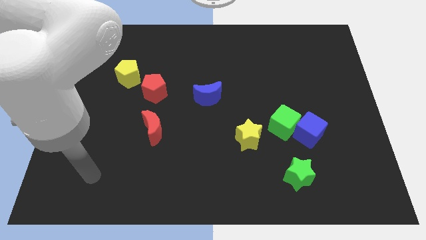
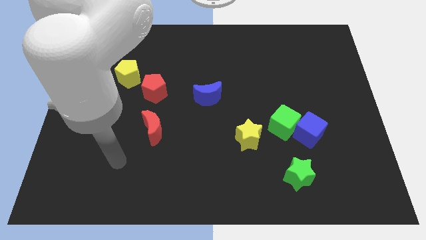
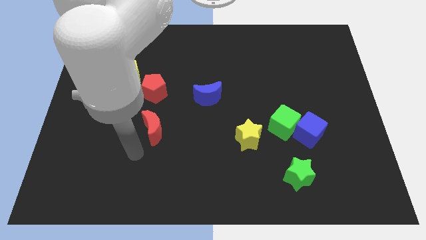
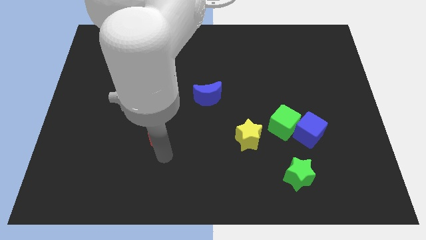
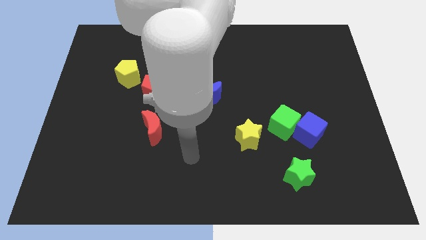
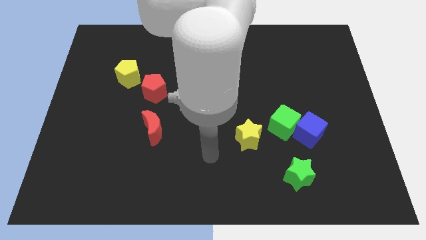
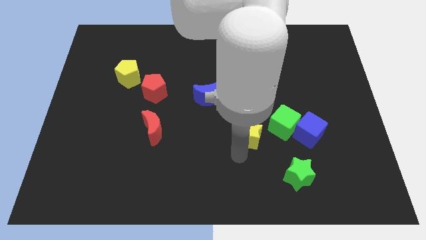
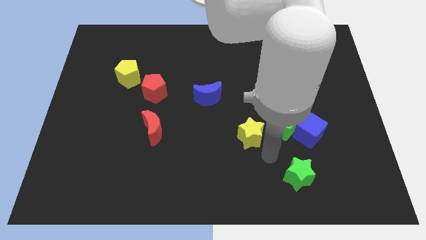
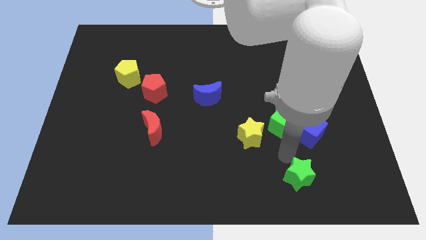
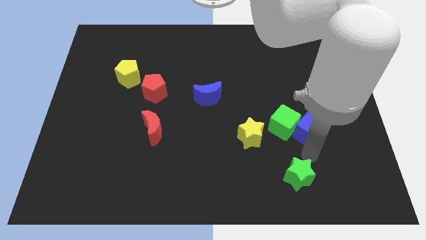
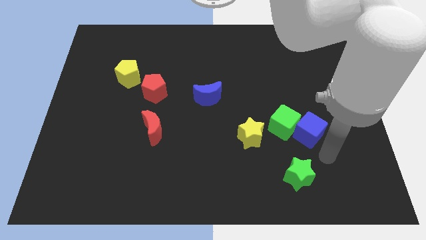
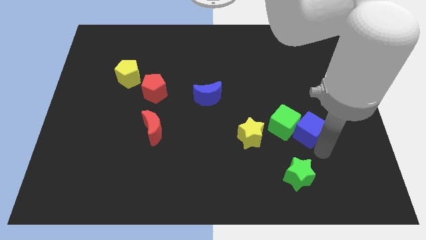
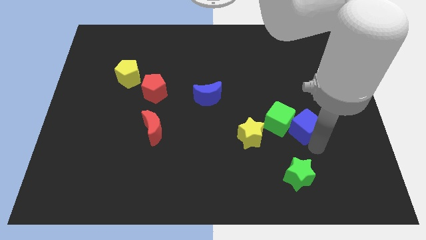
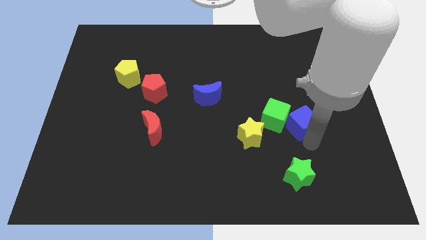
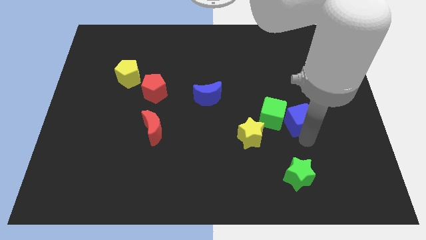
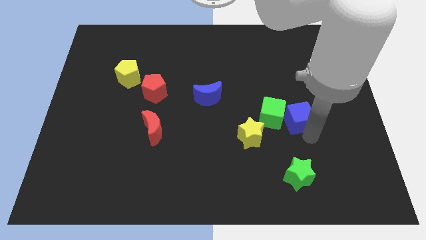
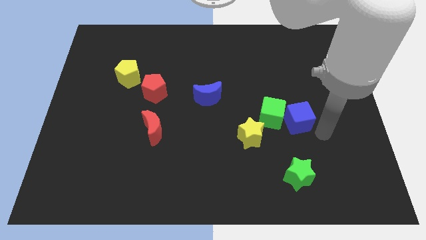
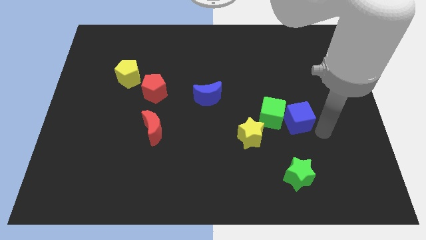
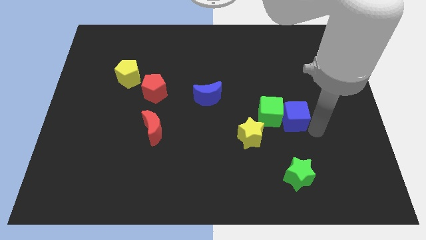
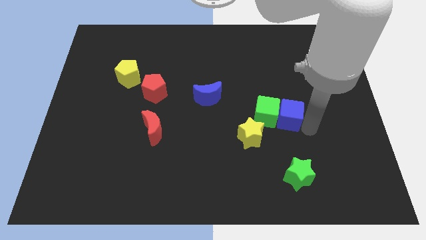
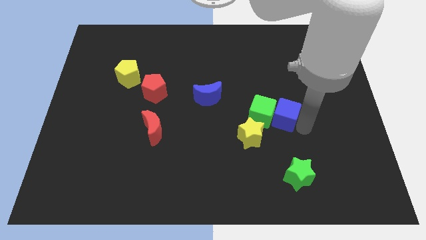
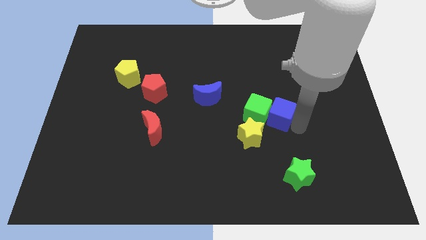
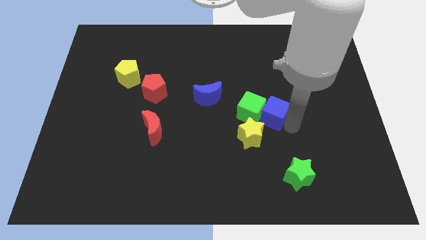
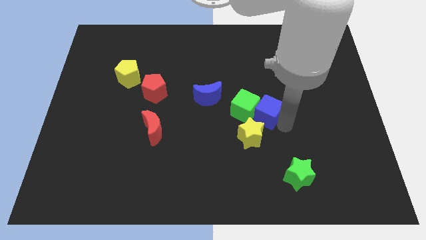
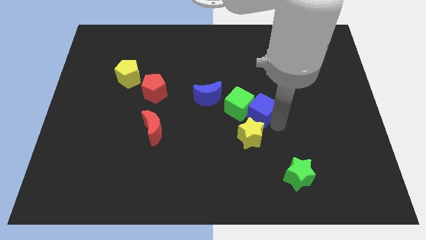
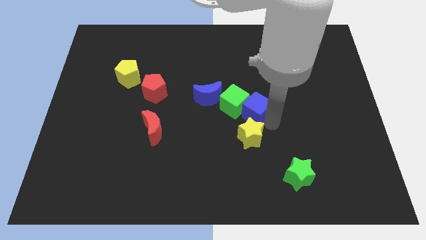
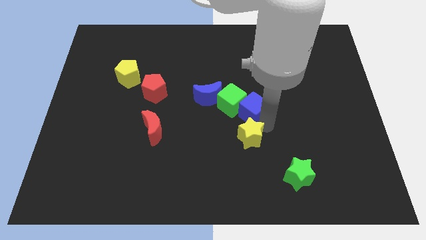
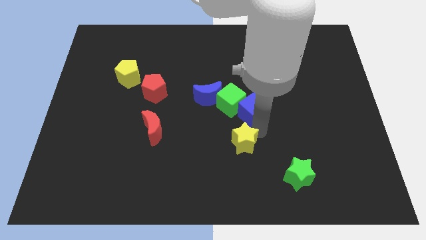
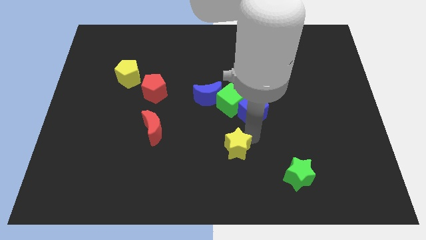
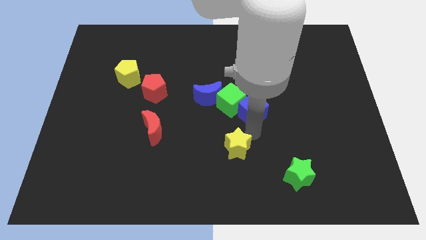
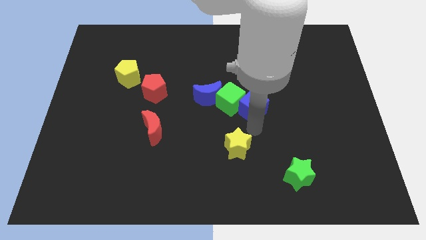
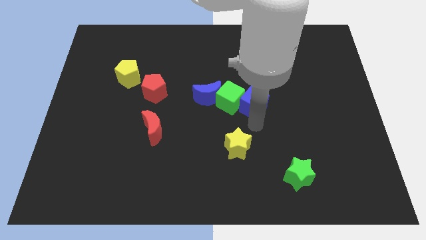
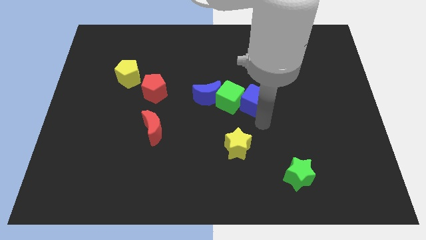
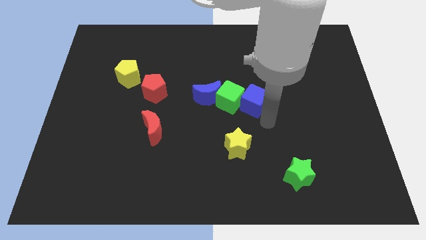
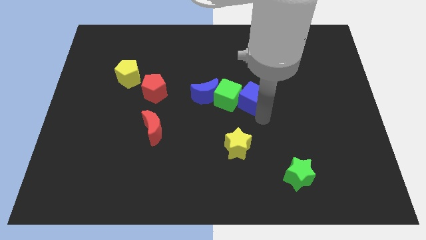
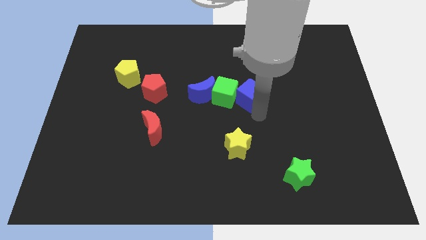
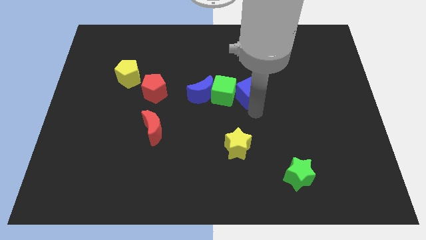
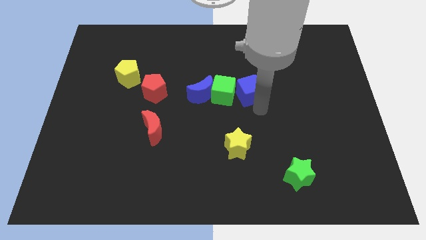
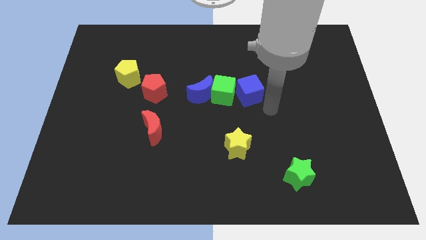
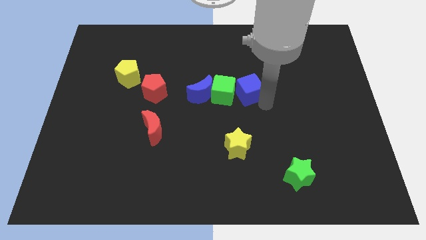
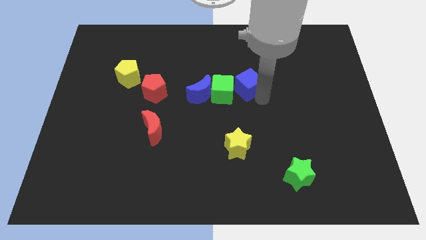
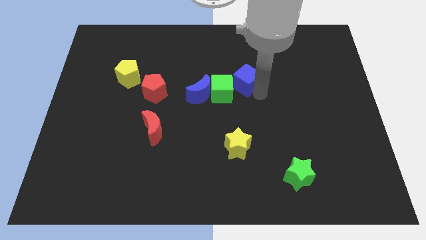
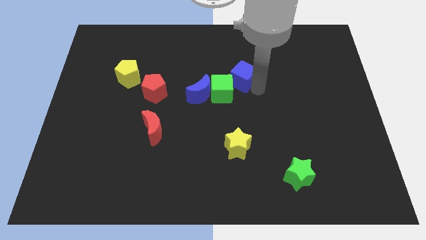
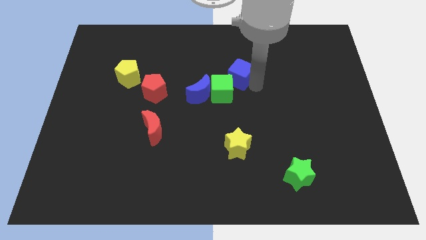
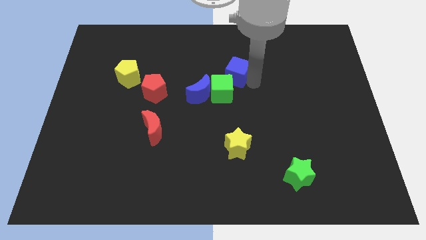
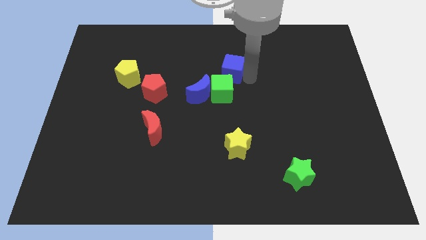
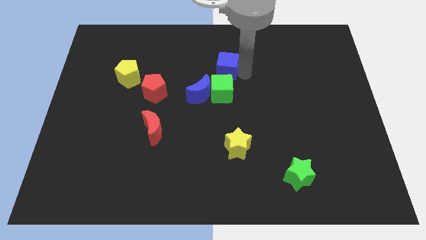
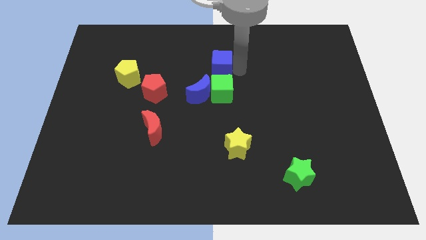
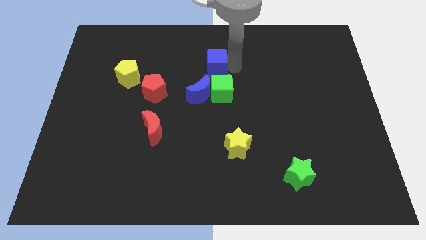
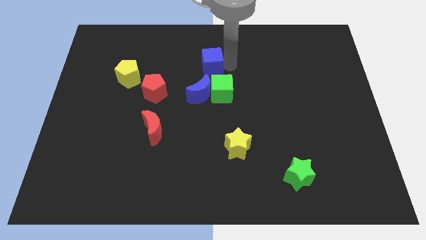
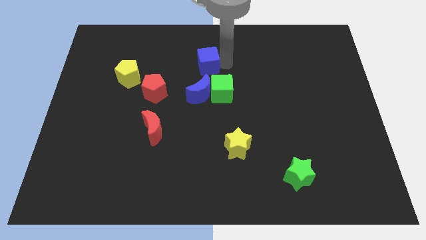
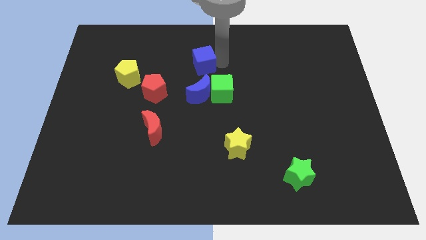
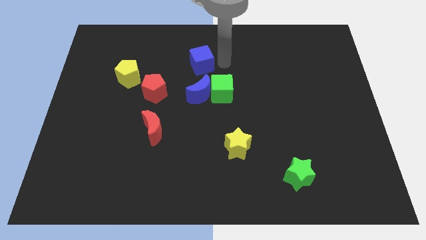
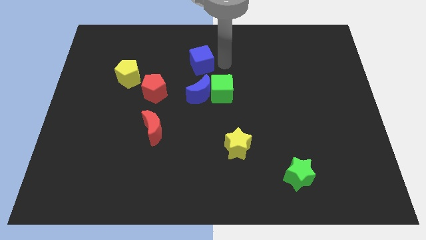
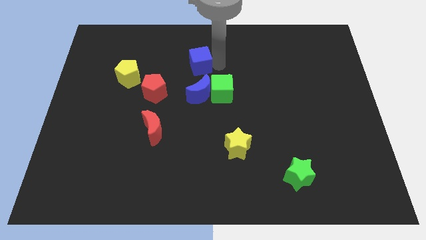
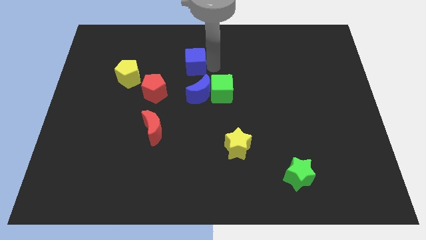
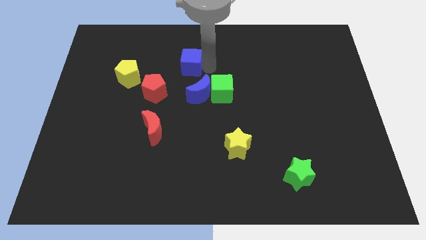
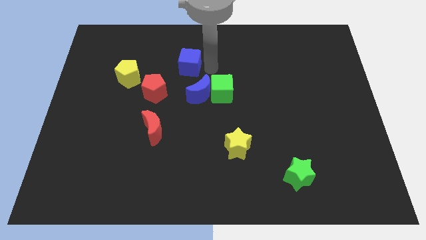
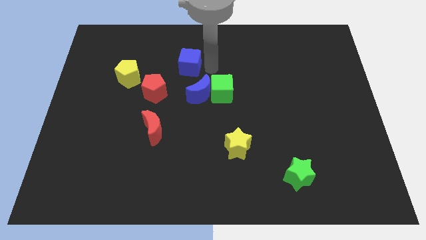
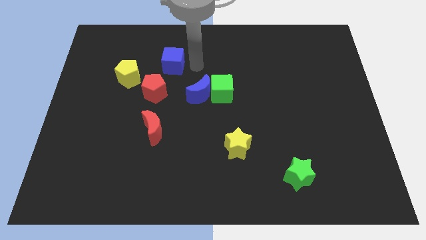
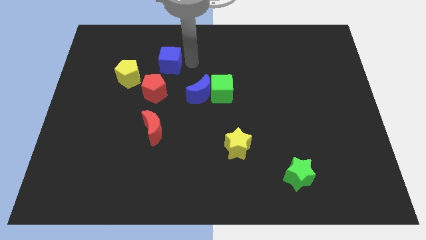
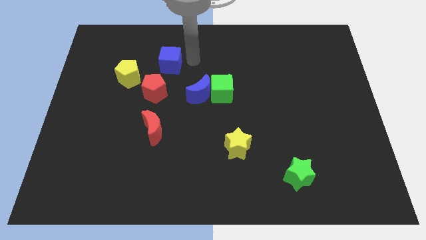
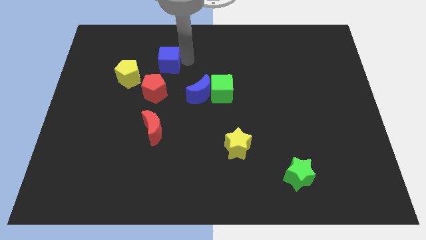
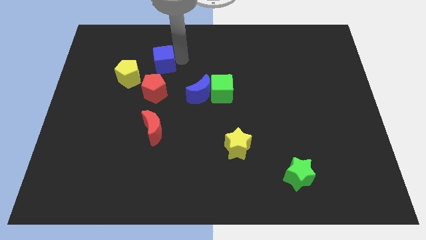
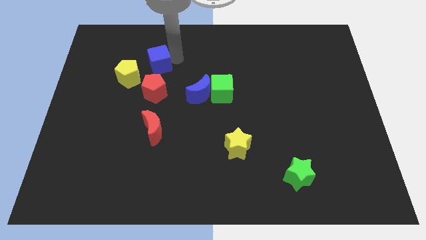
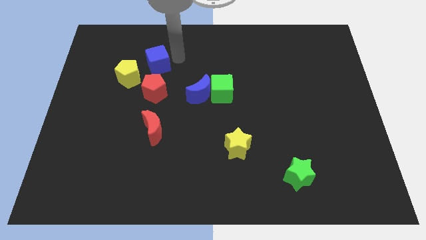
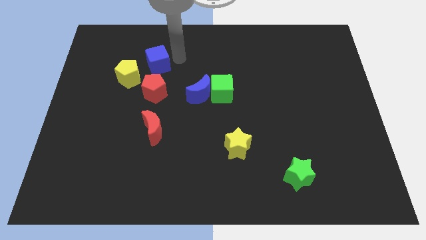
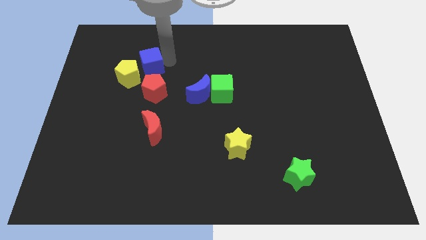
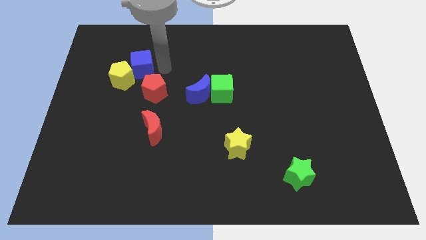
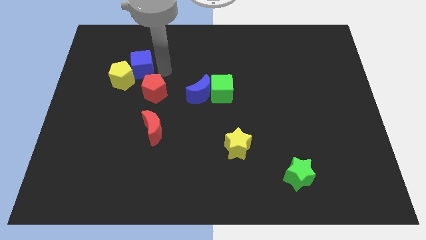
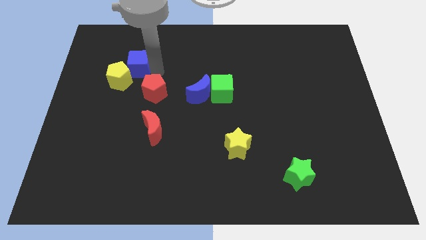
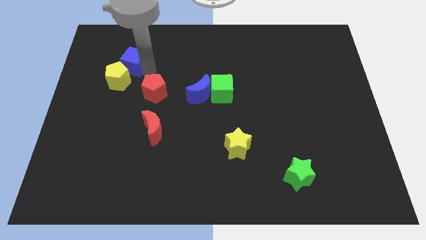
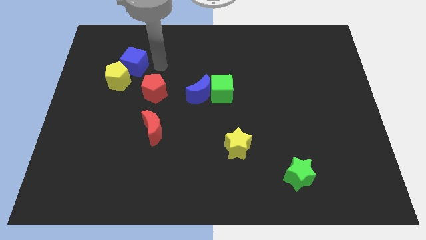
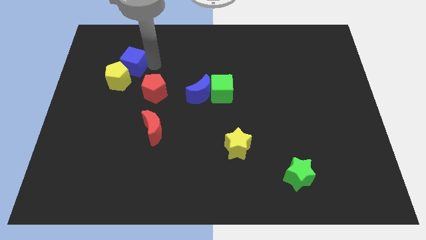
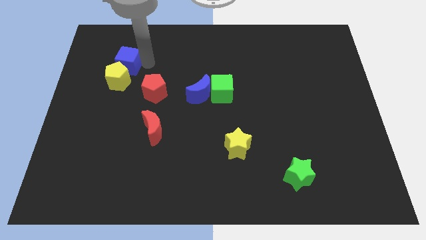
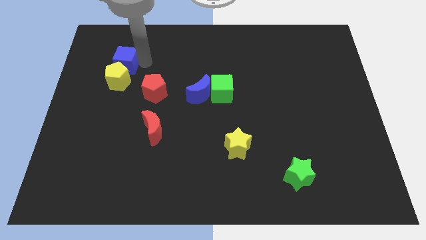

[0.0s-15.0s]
put the blue cube to the top left of the yellow pentagon
